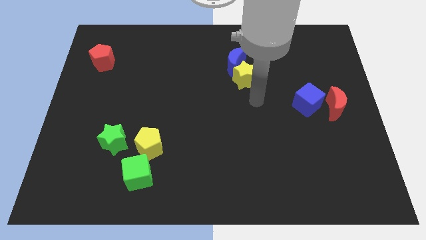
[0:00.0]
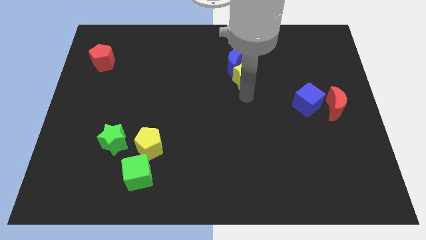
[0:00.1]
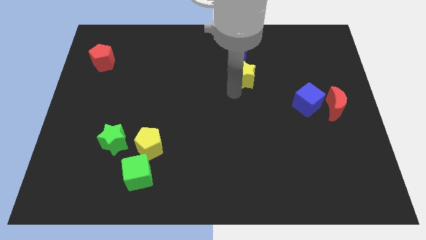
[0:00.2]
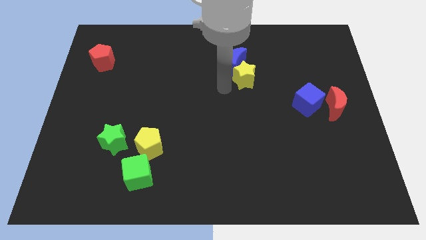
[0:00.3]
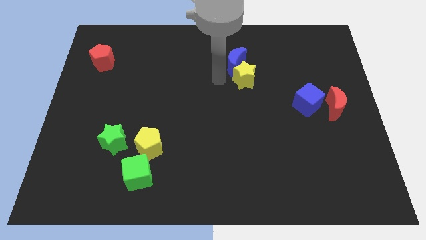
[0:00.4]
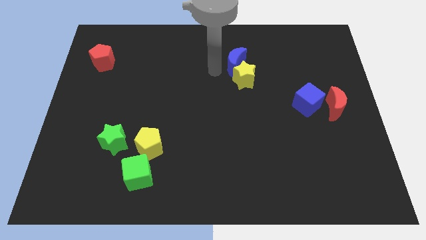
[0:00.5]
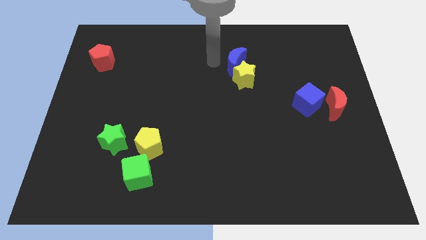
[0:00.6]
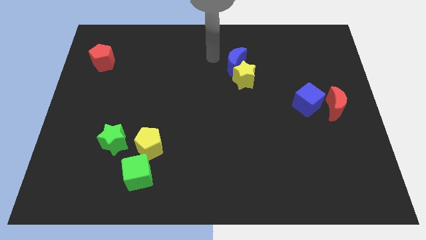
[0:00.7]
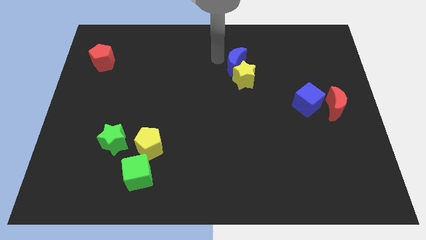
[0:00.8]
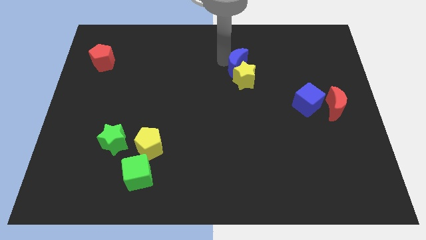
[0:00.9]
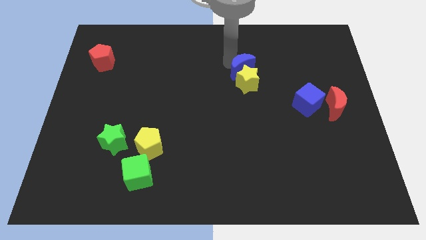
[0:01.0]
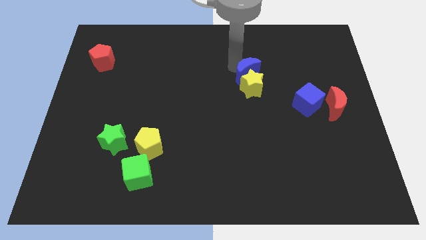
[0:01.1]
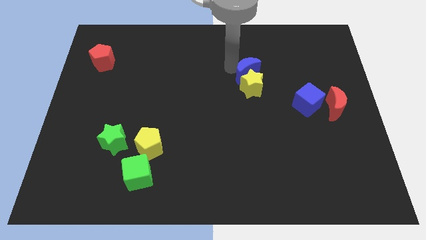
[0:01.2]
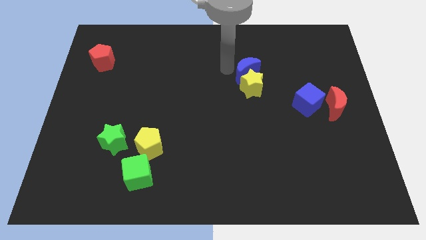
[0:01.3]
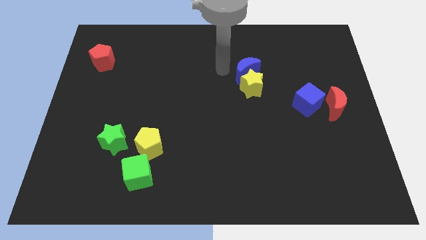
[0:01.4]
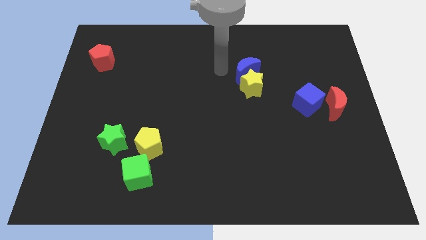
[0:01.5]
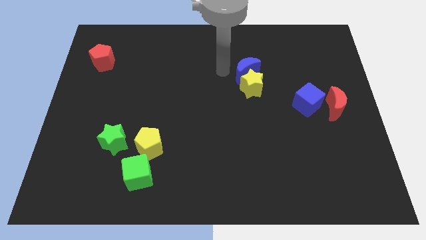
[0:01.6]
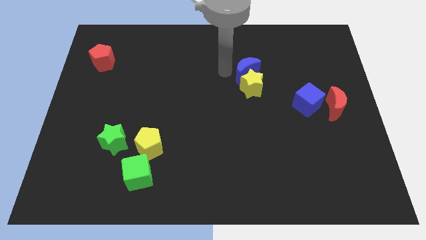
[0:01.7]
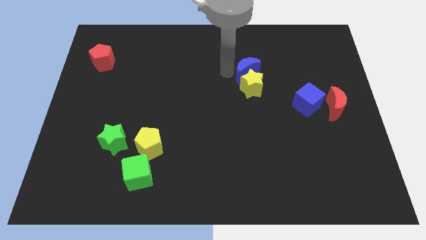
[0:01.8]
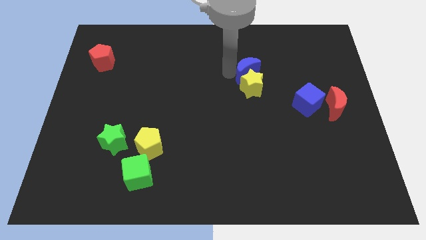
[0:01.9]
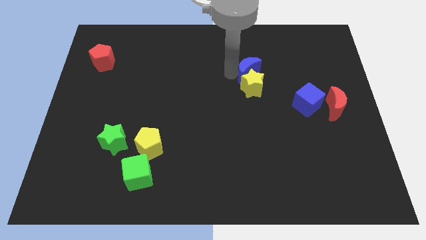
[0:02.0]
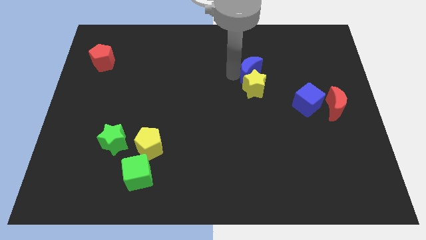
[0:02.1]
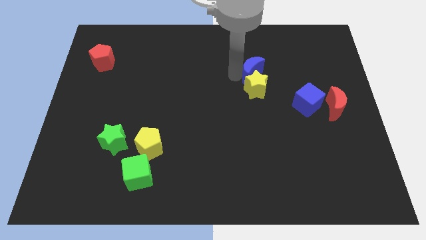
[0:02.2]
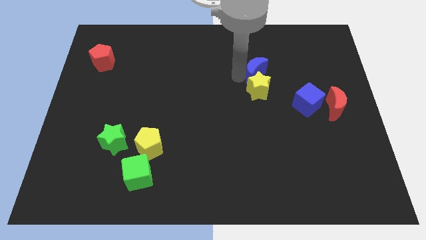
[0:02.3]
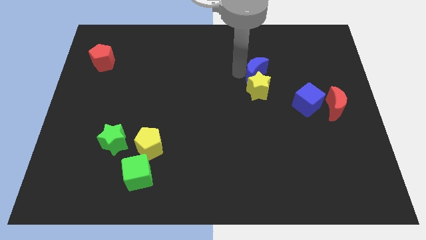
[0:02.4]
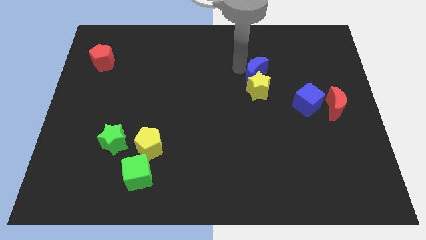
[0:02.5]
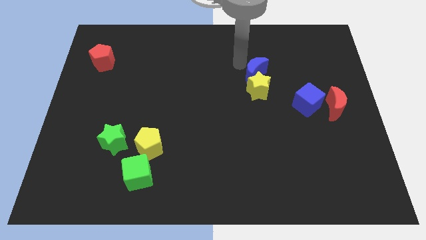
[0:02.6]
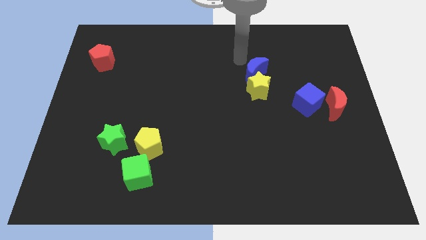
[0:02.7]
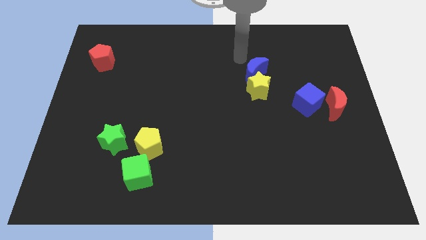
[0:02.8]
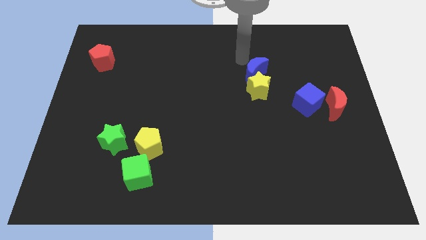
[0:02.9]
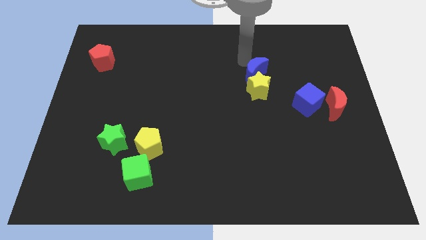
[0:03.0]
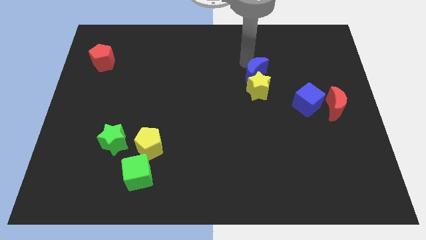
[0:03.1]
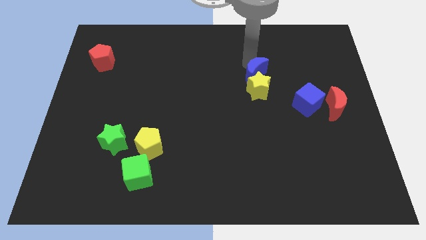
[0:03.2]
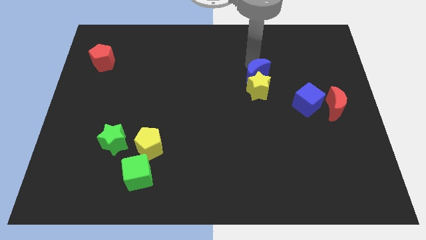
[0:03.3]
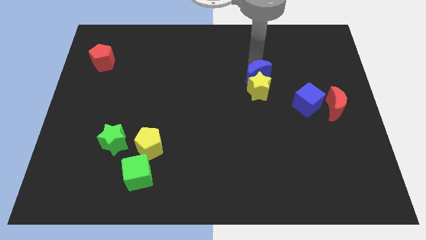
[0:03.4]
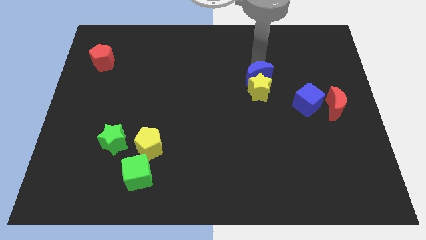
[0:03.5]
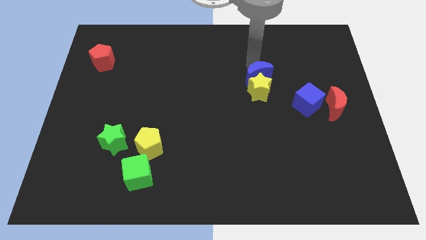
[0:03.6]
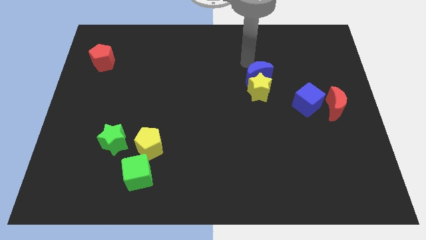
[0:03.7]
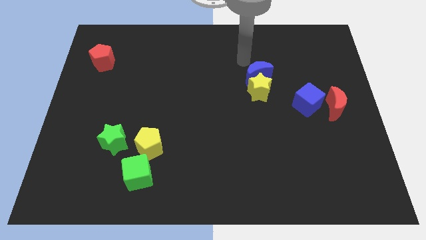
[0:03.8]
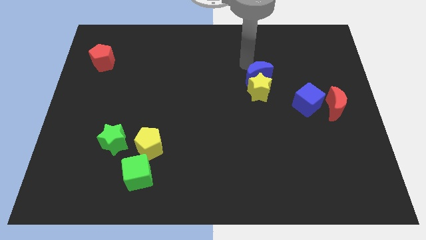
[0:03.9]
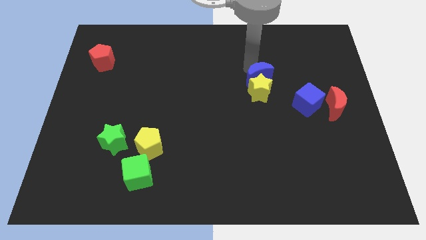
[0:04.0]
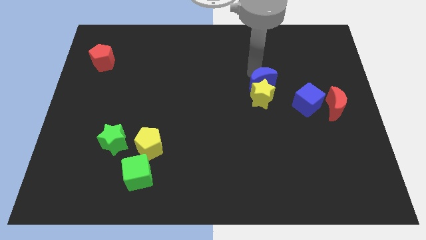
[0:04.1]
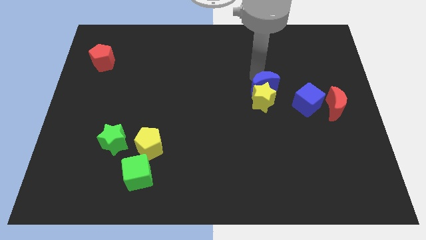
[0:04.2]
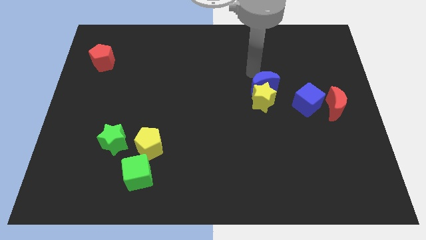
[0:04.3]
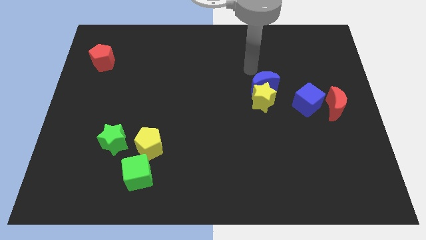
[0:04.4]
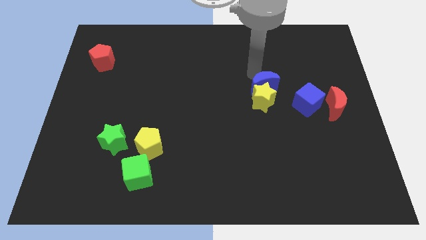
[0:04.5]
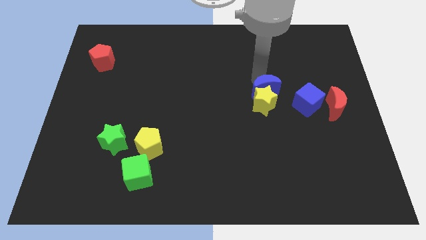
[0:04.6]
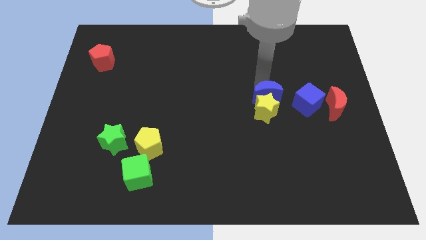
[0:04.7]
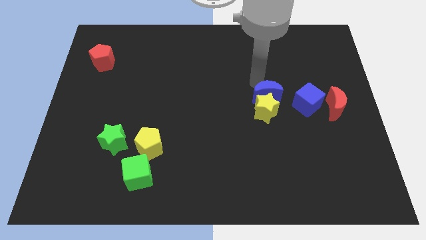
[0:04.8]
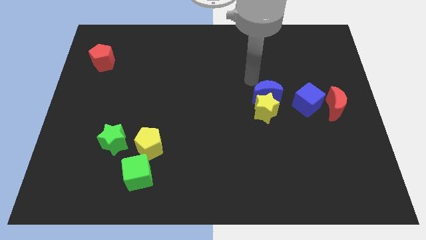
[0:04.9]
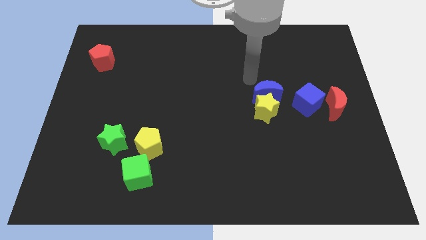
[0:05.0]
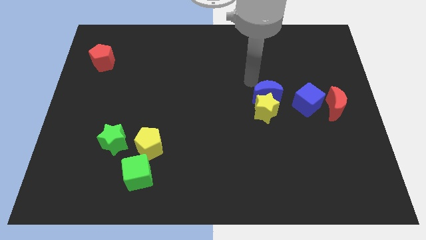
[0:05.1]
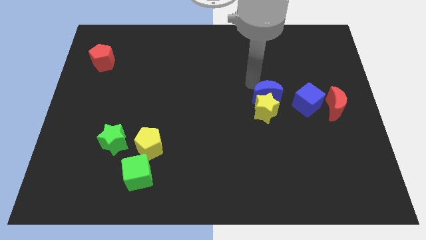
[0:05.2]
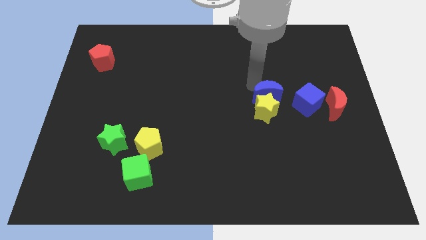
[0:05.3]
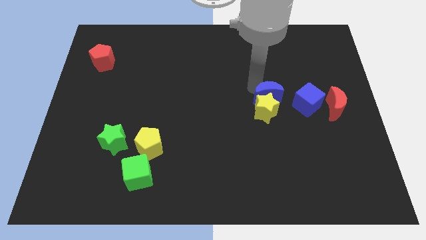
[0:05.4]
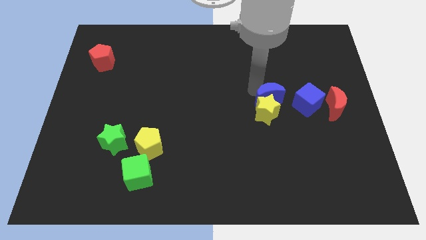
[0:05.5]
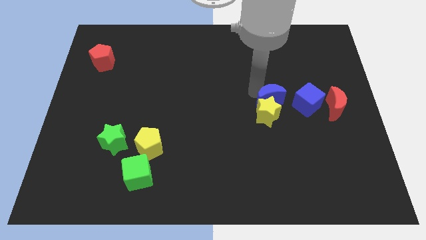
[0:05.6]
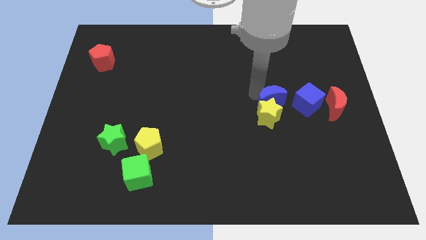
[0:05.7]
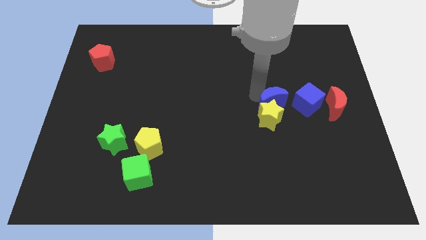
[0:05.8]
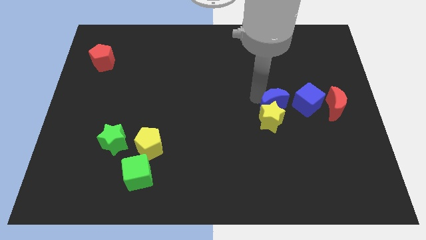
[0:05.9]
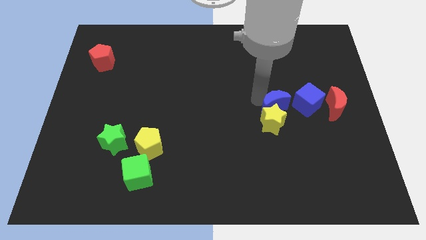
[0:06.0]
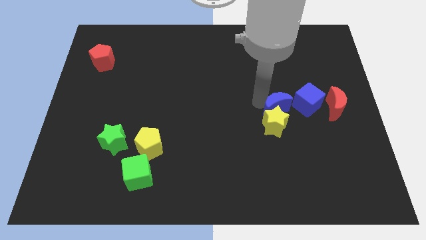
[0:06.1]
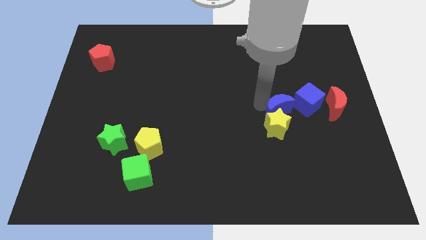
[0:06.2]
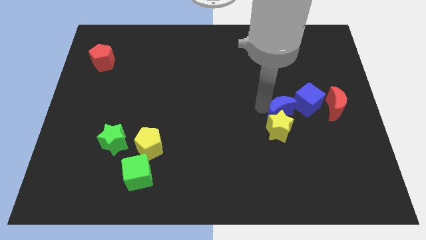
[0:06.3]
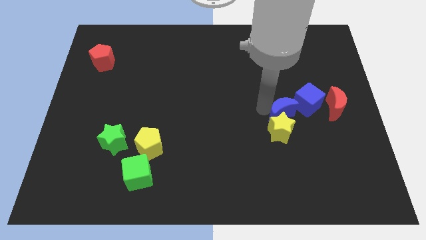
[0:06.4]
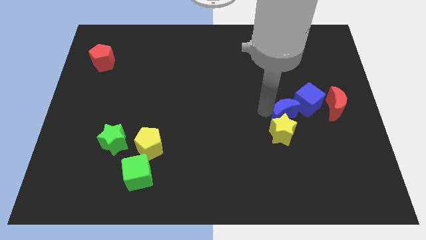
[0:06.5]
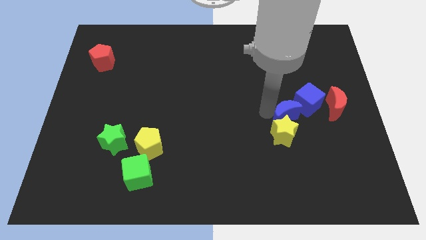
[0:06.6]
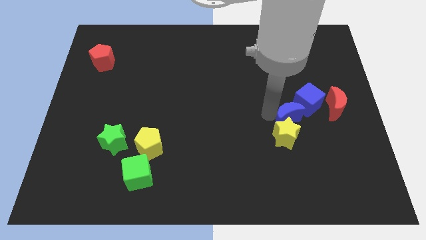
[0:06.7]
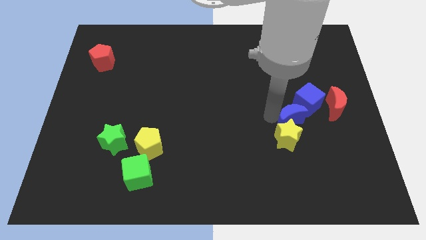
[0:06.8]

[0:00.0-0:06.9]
slide the blue moon diagonally down and right

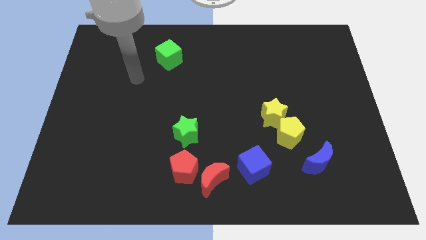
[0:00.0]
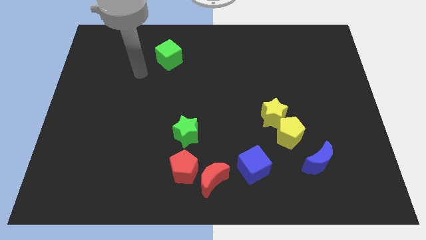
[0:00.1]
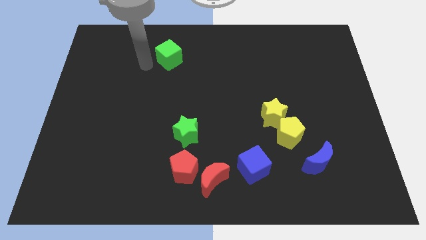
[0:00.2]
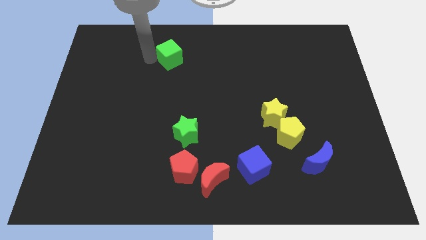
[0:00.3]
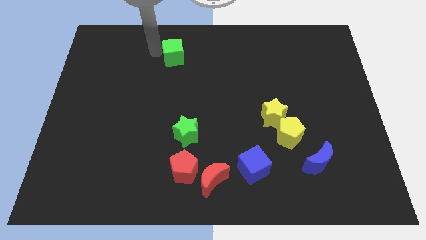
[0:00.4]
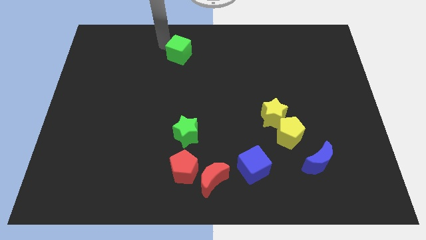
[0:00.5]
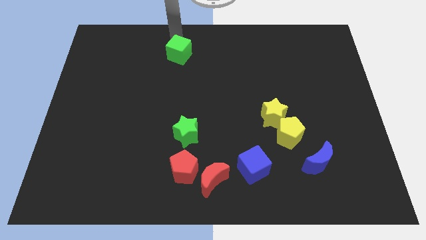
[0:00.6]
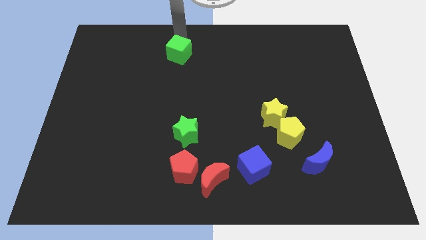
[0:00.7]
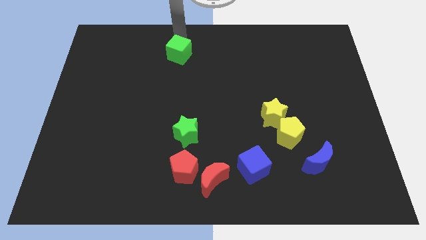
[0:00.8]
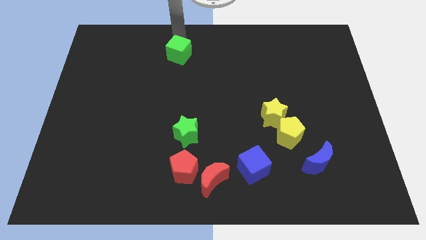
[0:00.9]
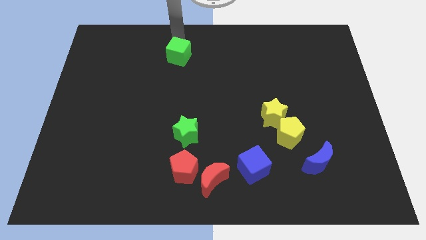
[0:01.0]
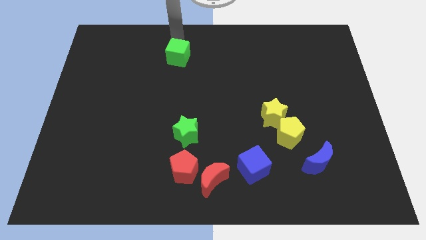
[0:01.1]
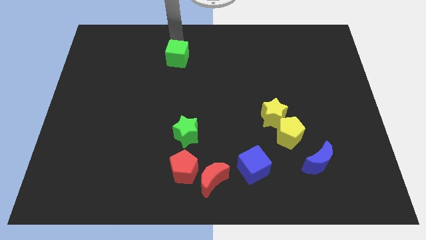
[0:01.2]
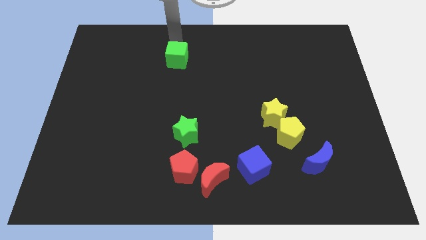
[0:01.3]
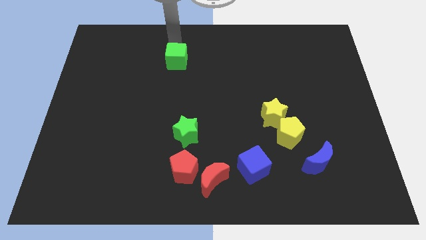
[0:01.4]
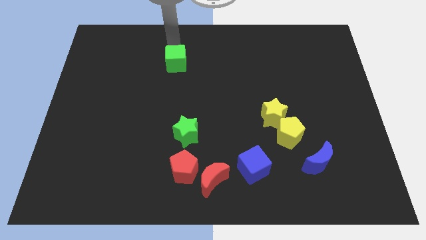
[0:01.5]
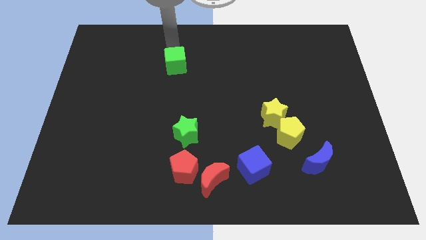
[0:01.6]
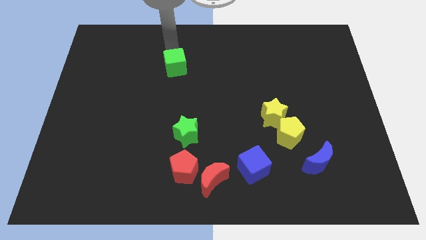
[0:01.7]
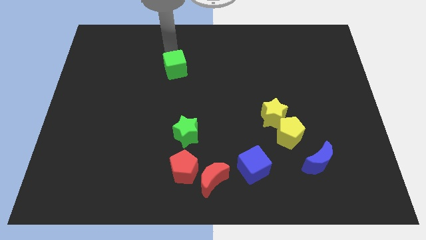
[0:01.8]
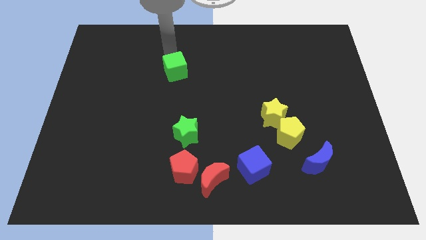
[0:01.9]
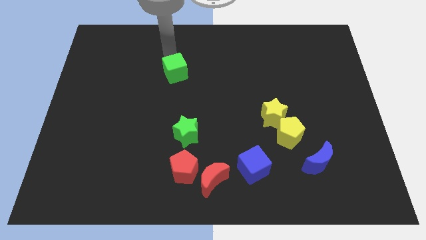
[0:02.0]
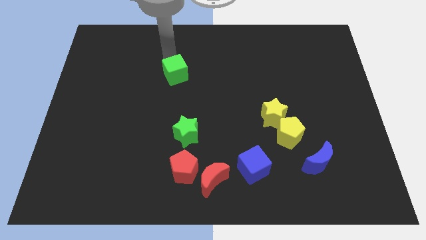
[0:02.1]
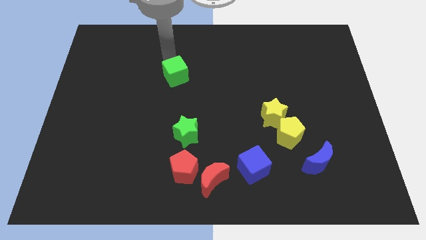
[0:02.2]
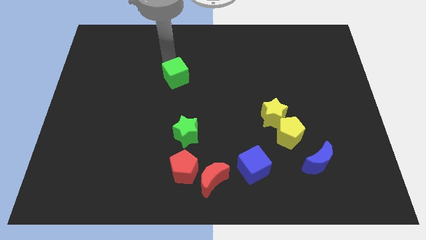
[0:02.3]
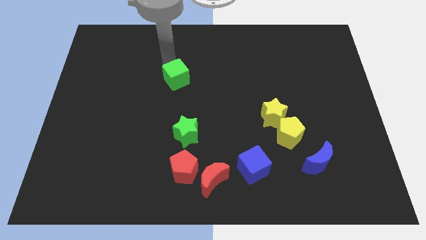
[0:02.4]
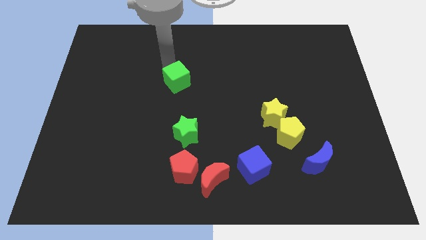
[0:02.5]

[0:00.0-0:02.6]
slide the green cube downwards and right somewhat
